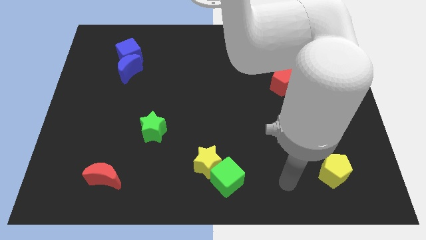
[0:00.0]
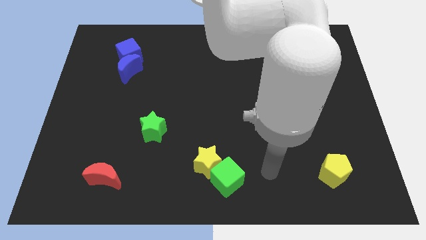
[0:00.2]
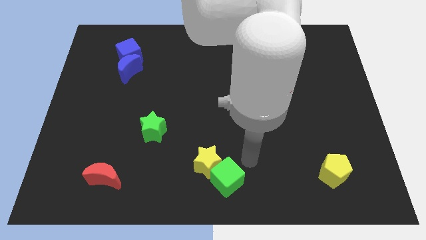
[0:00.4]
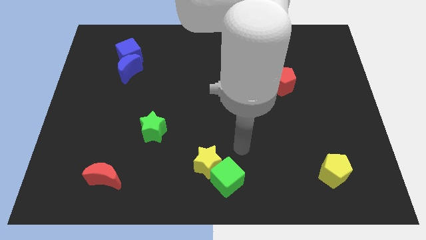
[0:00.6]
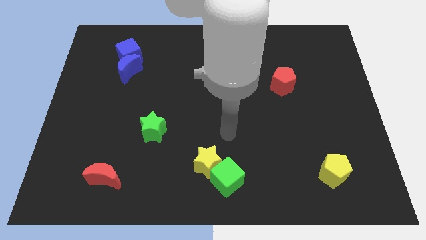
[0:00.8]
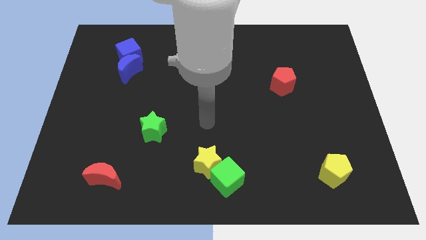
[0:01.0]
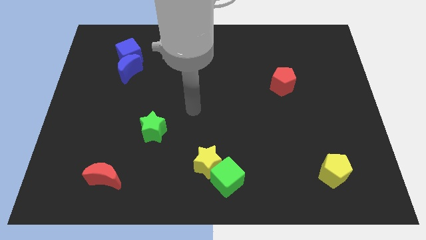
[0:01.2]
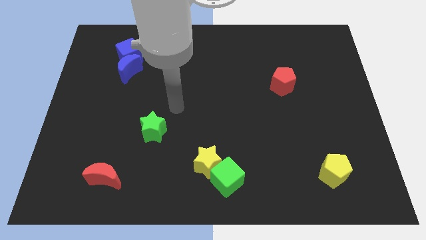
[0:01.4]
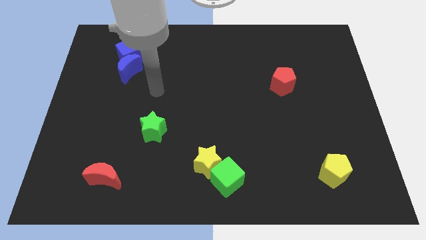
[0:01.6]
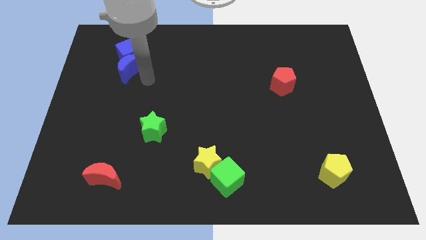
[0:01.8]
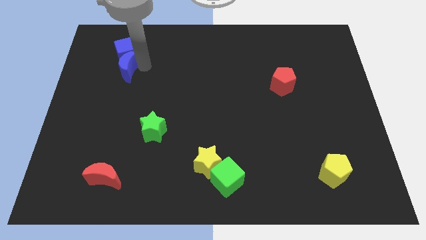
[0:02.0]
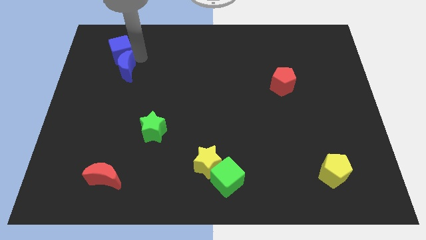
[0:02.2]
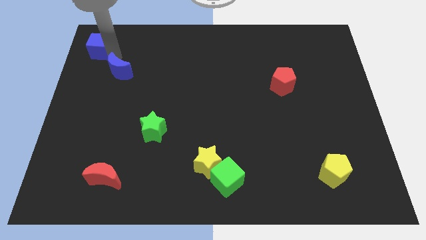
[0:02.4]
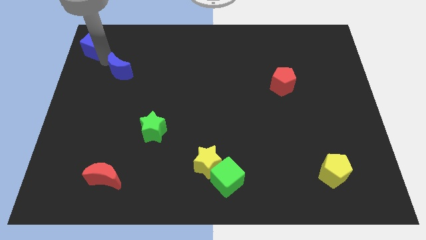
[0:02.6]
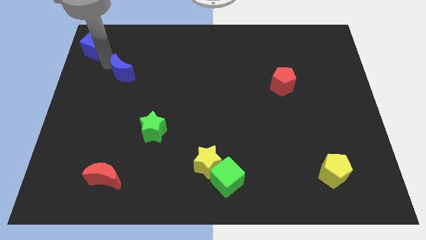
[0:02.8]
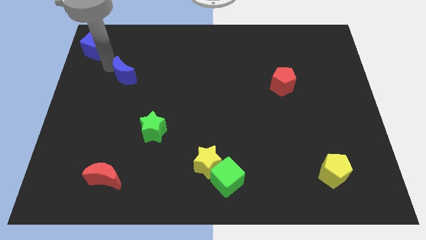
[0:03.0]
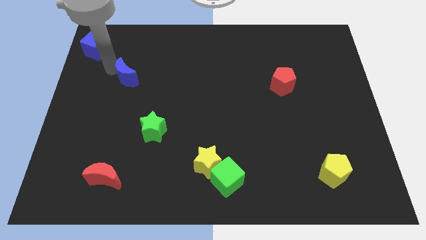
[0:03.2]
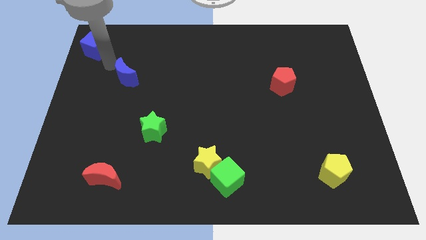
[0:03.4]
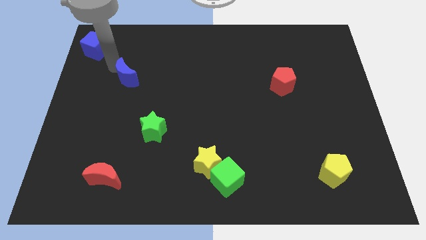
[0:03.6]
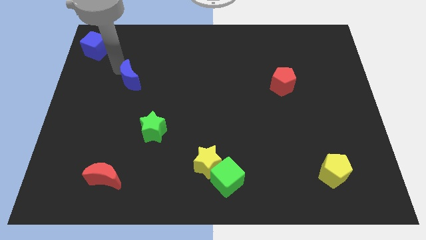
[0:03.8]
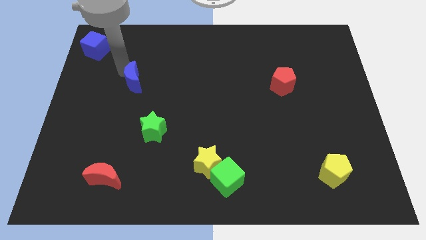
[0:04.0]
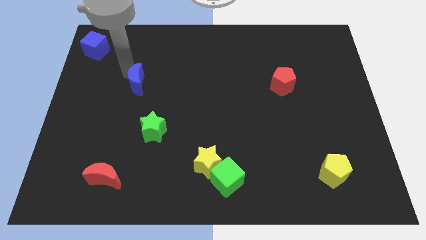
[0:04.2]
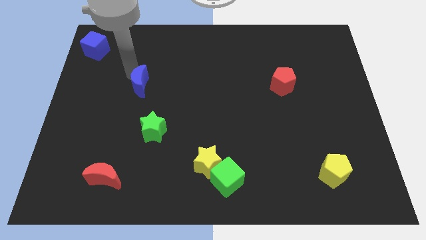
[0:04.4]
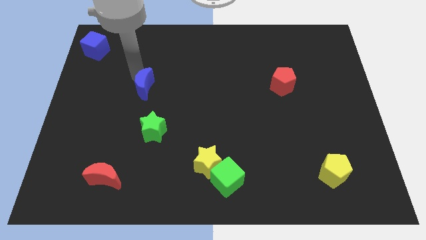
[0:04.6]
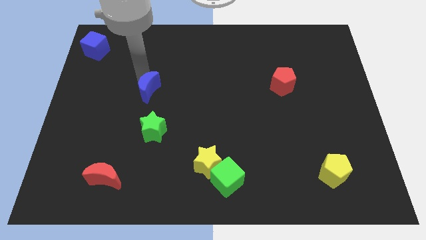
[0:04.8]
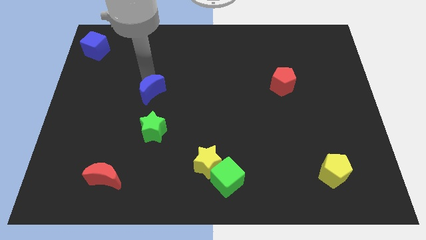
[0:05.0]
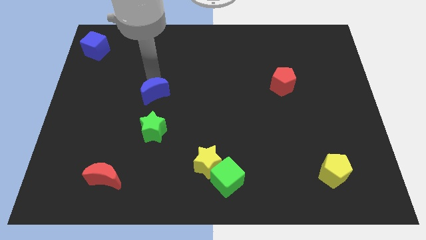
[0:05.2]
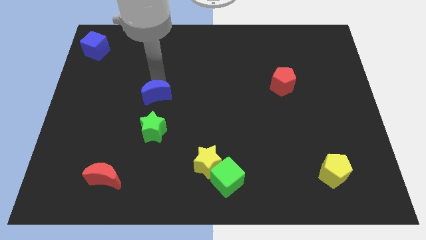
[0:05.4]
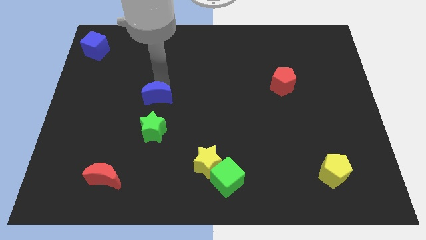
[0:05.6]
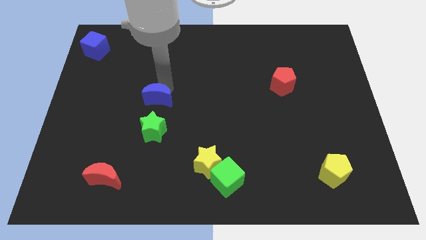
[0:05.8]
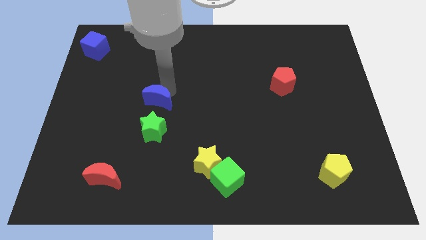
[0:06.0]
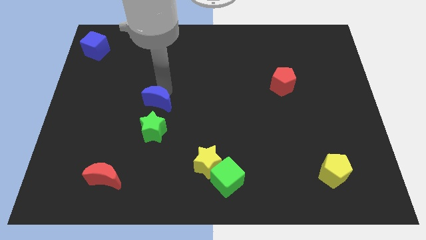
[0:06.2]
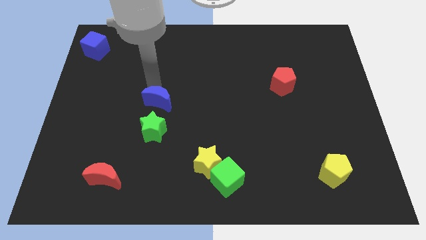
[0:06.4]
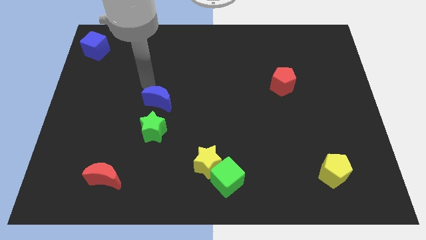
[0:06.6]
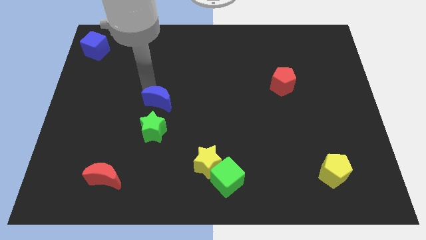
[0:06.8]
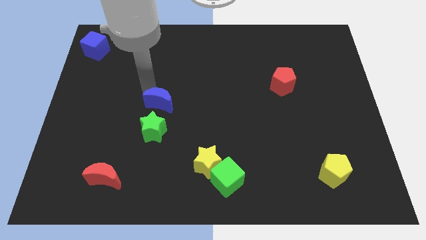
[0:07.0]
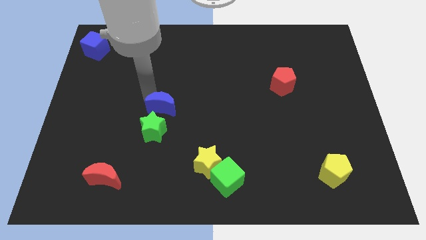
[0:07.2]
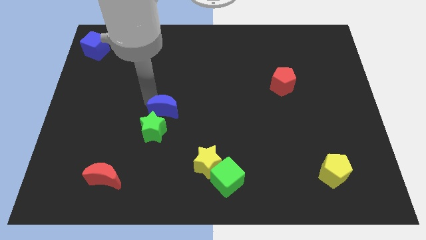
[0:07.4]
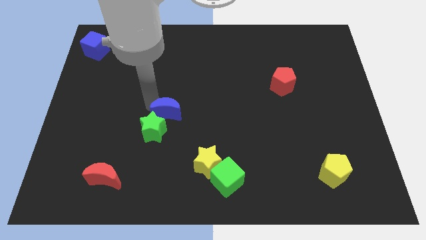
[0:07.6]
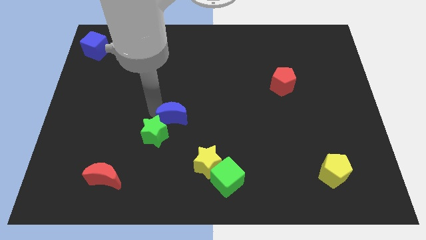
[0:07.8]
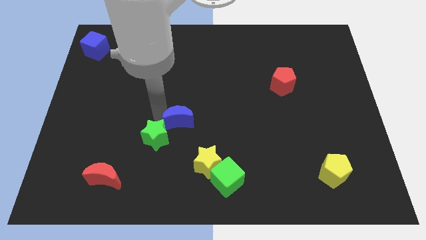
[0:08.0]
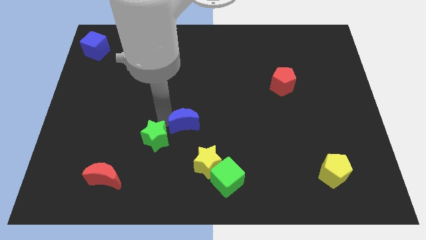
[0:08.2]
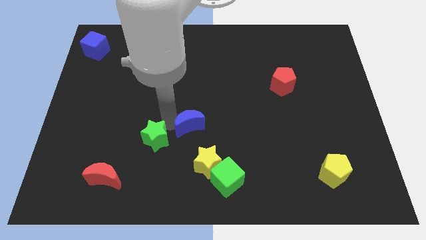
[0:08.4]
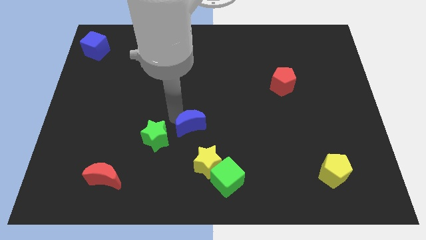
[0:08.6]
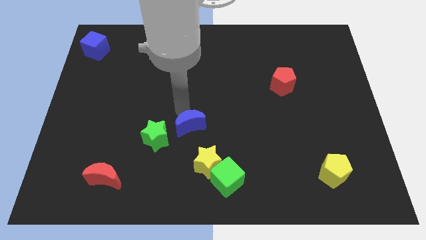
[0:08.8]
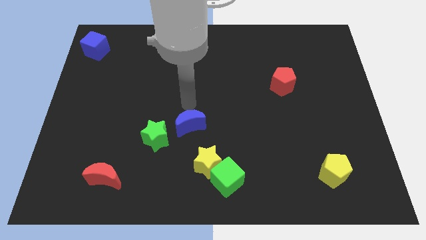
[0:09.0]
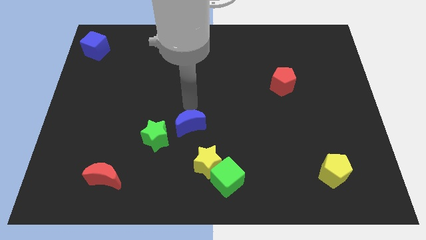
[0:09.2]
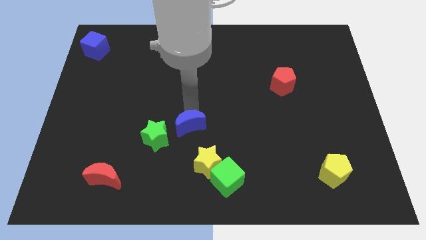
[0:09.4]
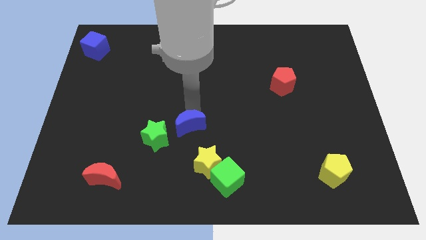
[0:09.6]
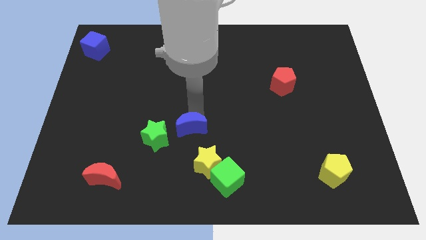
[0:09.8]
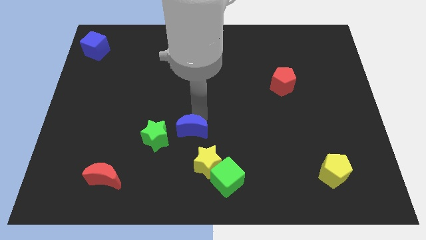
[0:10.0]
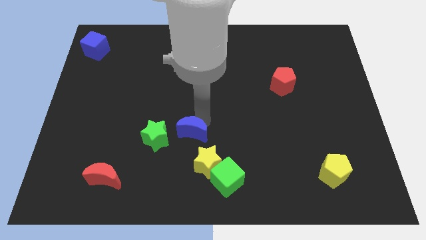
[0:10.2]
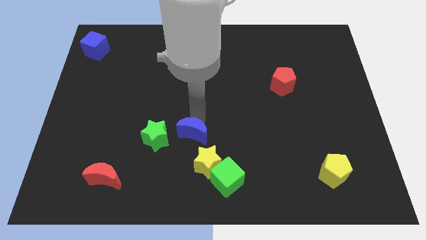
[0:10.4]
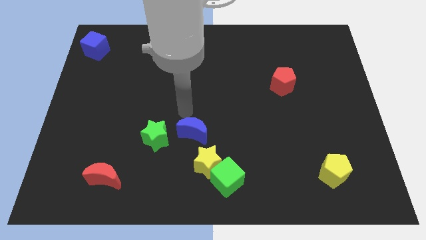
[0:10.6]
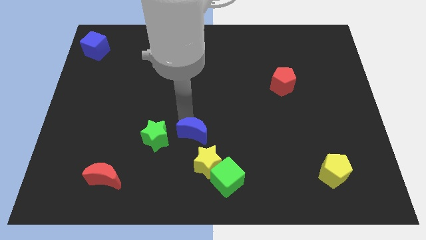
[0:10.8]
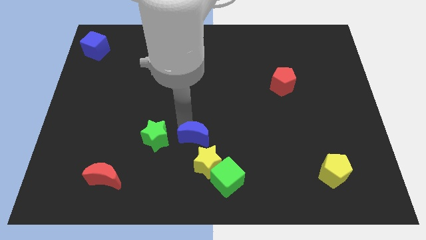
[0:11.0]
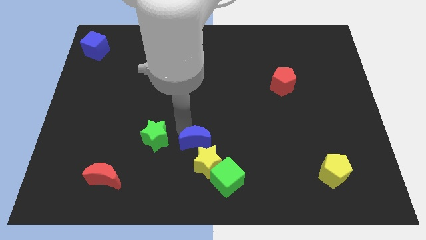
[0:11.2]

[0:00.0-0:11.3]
push the blue moon next to the yellow star

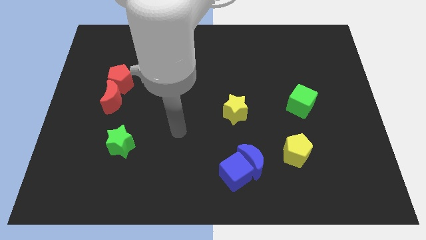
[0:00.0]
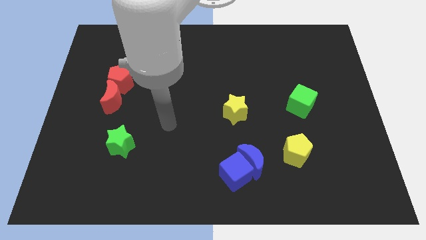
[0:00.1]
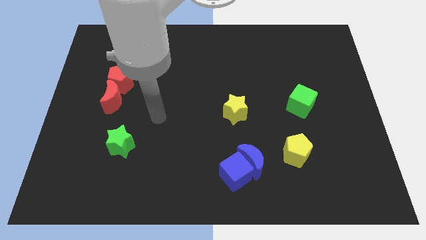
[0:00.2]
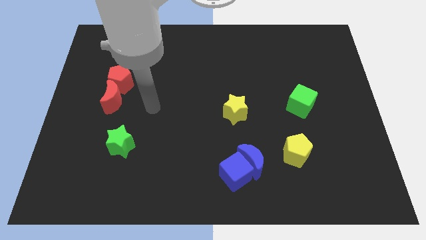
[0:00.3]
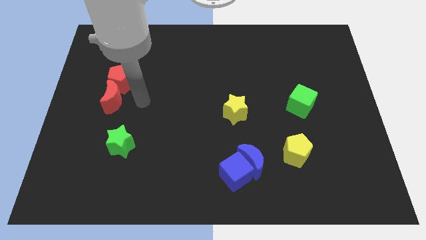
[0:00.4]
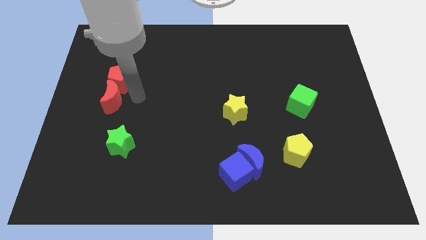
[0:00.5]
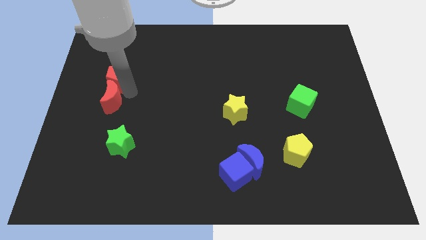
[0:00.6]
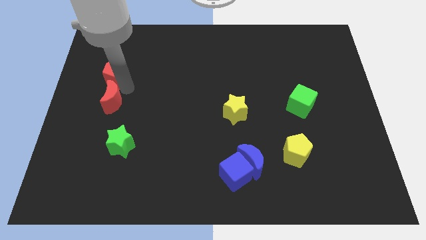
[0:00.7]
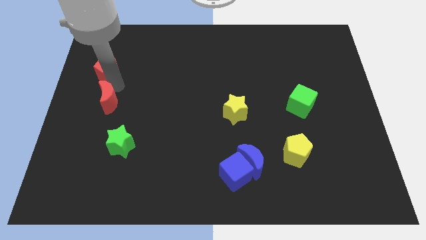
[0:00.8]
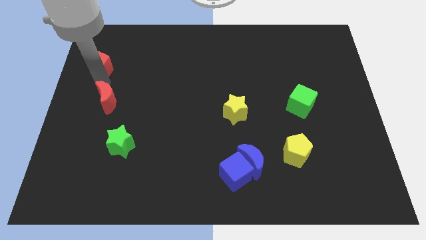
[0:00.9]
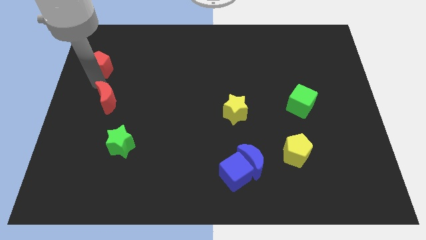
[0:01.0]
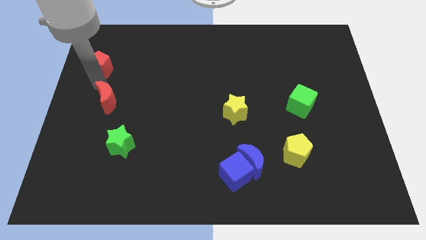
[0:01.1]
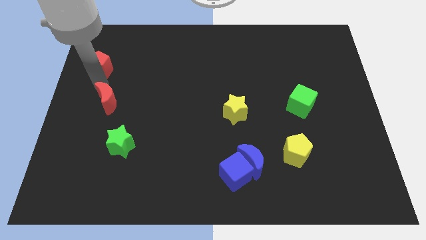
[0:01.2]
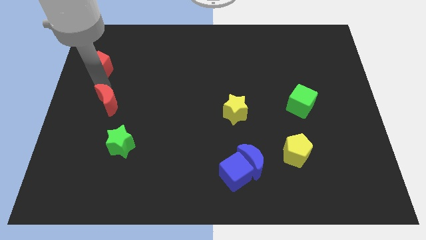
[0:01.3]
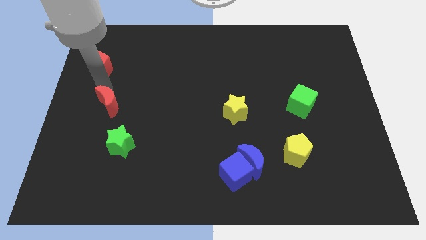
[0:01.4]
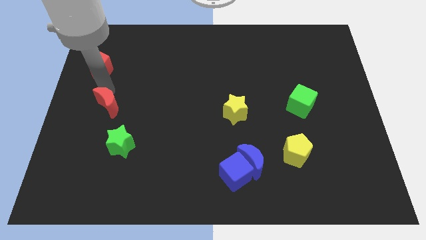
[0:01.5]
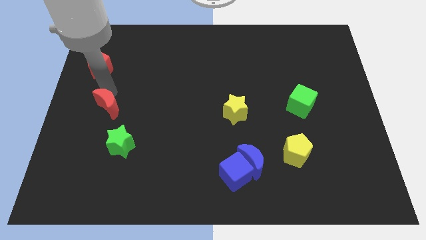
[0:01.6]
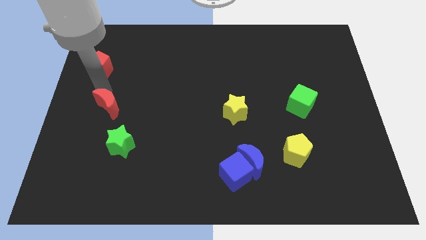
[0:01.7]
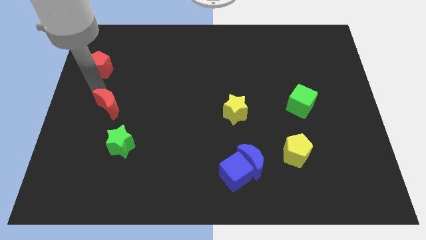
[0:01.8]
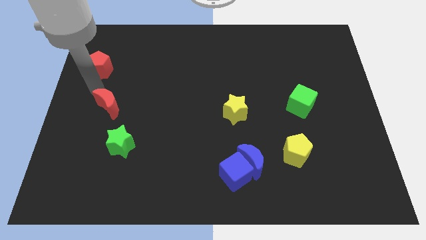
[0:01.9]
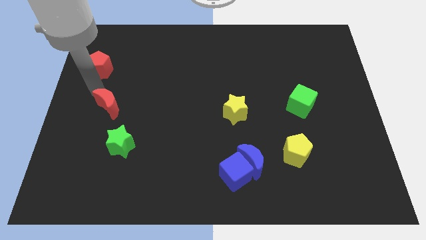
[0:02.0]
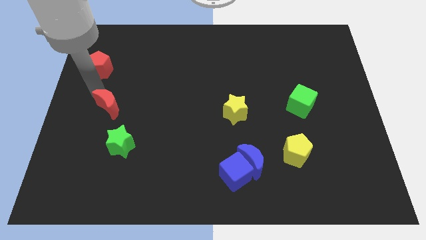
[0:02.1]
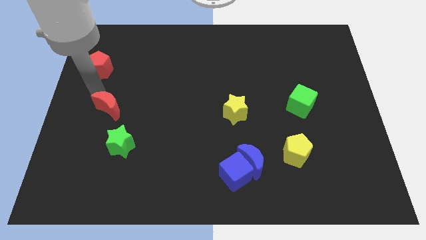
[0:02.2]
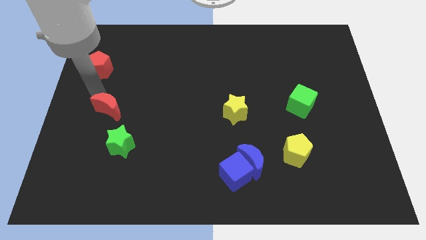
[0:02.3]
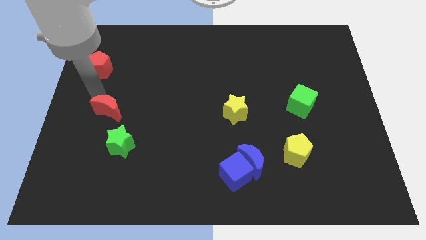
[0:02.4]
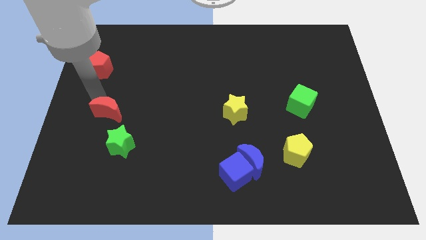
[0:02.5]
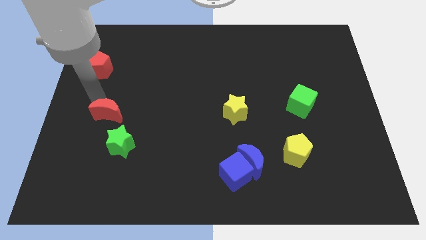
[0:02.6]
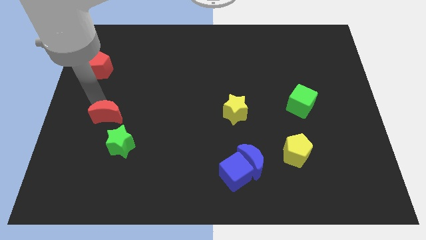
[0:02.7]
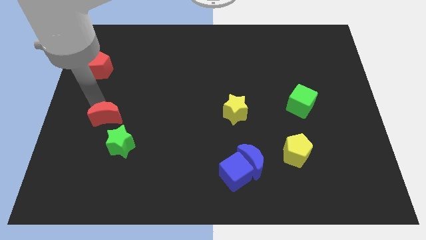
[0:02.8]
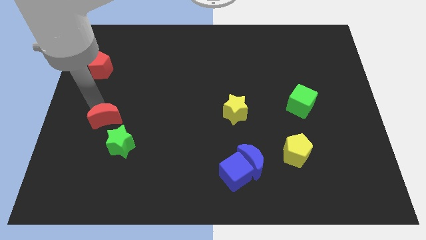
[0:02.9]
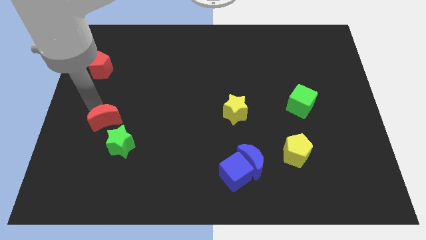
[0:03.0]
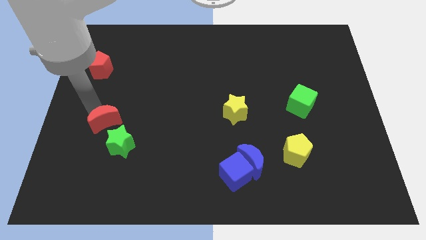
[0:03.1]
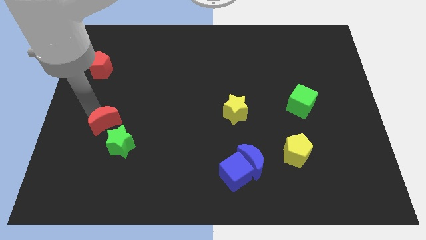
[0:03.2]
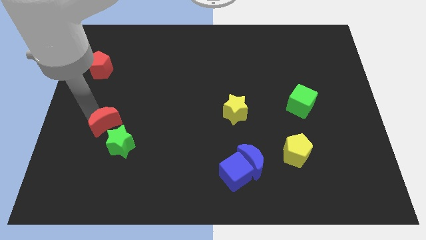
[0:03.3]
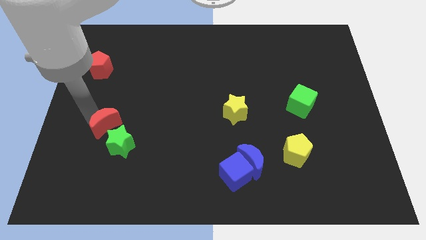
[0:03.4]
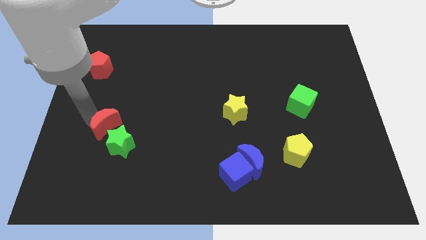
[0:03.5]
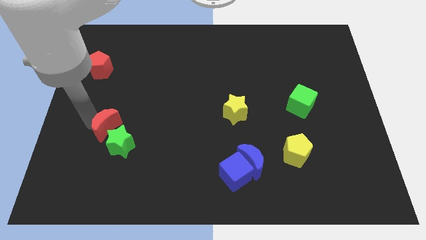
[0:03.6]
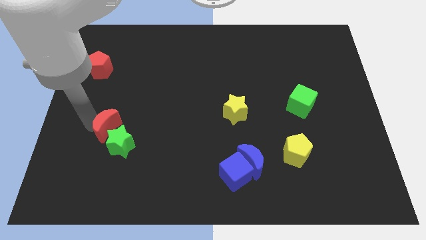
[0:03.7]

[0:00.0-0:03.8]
slide the red moon next to the green star
